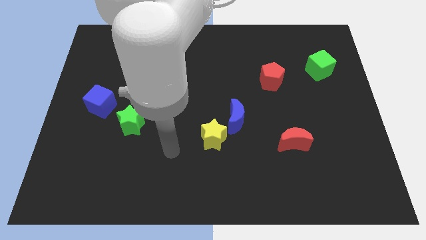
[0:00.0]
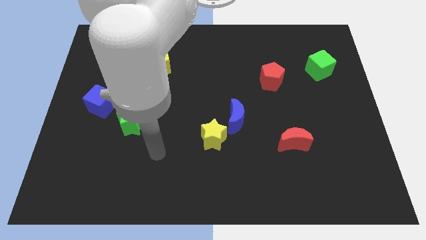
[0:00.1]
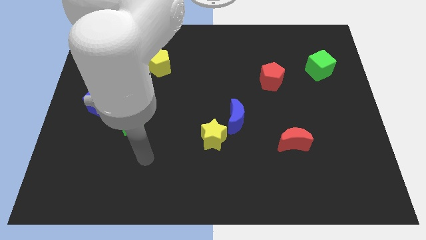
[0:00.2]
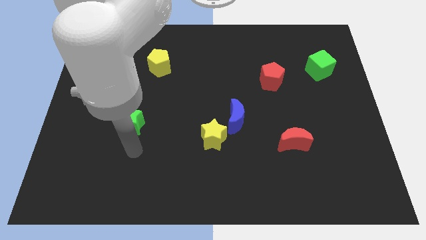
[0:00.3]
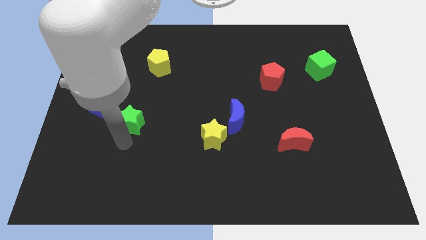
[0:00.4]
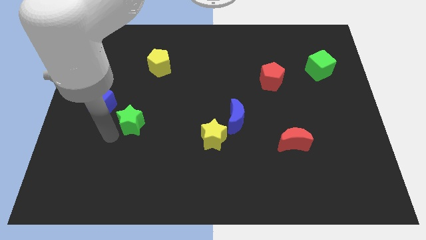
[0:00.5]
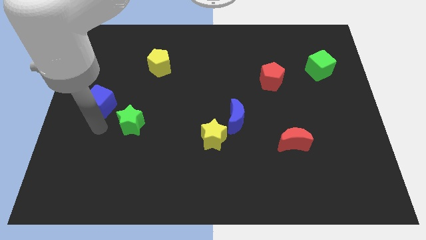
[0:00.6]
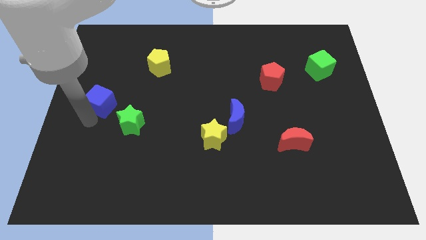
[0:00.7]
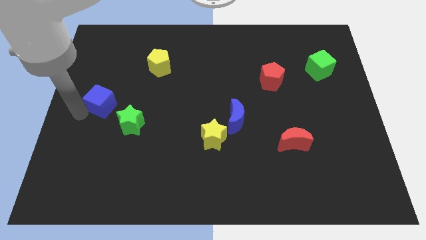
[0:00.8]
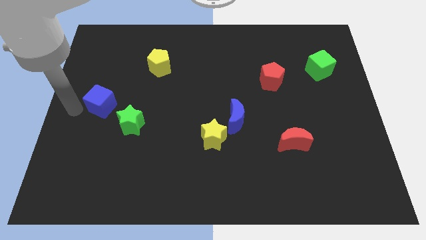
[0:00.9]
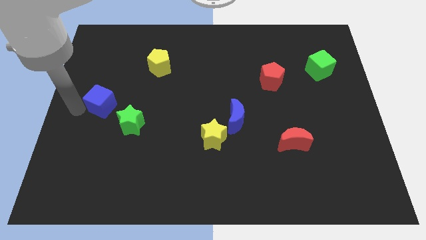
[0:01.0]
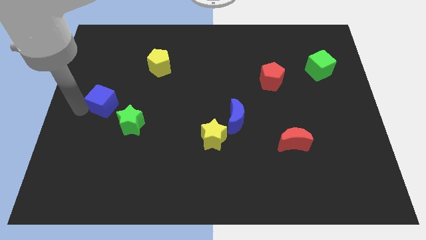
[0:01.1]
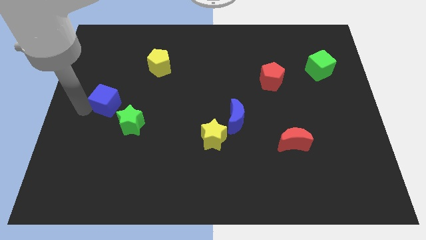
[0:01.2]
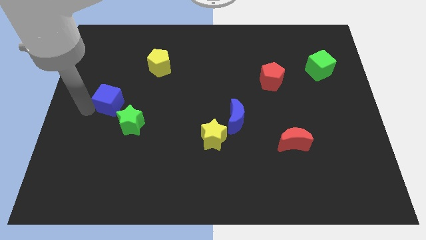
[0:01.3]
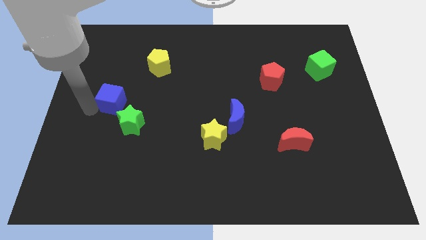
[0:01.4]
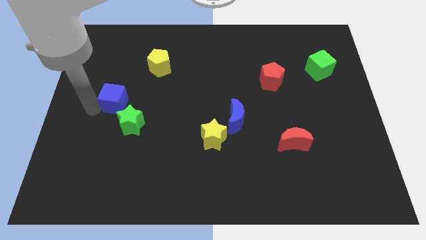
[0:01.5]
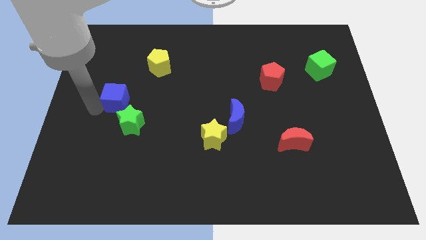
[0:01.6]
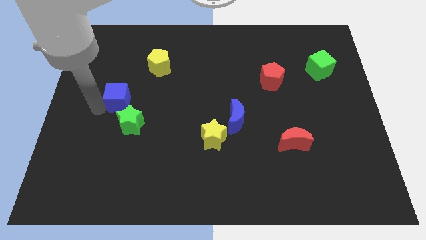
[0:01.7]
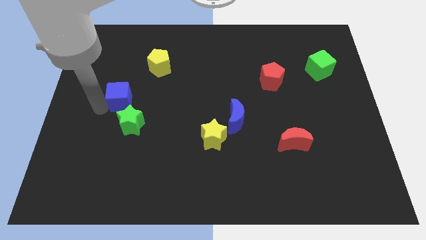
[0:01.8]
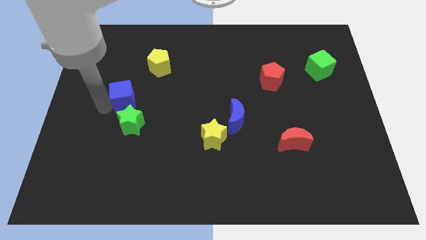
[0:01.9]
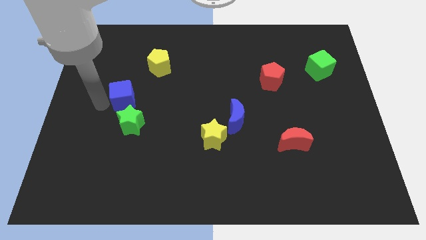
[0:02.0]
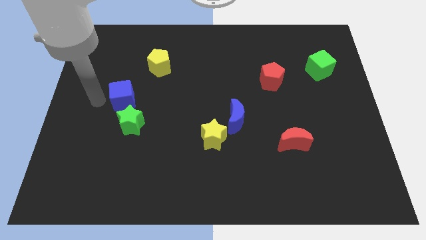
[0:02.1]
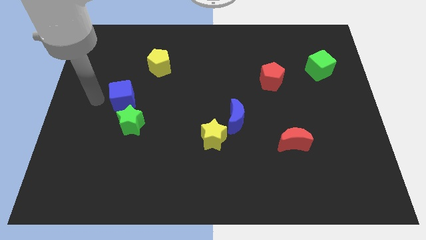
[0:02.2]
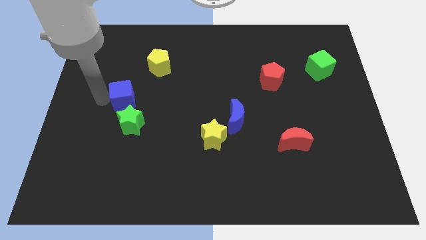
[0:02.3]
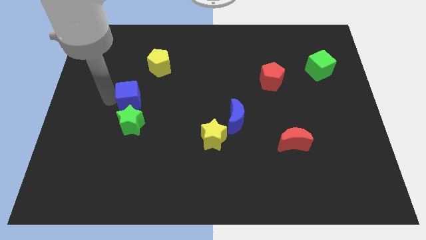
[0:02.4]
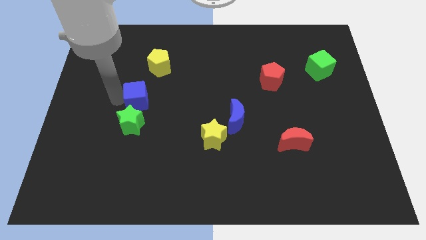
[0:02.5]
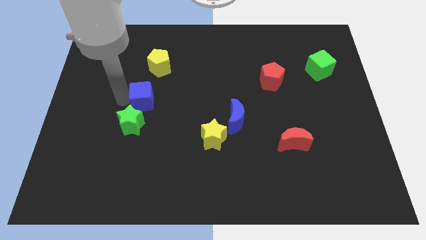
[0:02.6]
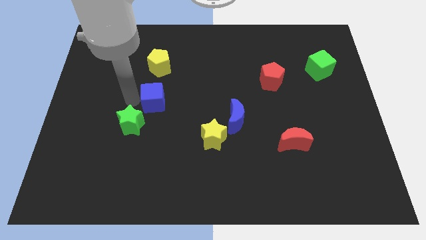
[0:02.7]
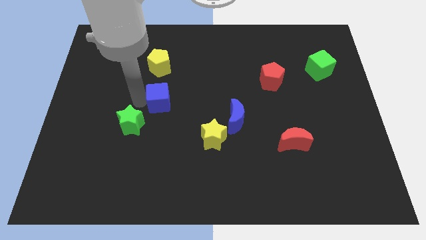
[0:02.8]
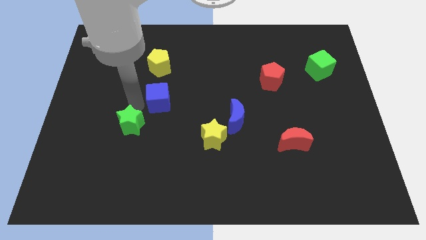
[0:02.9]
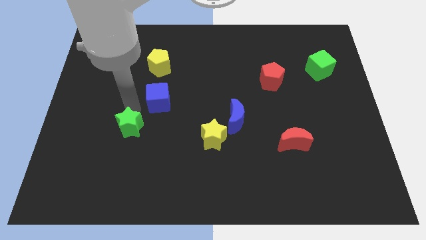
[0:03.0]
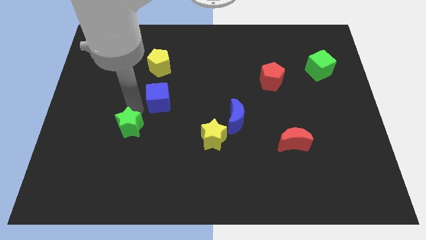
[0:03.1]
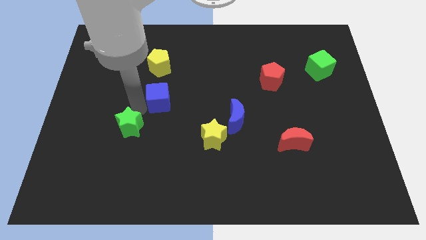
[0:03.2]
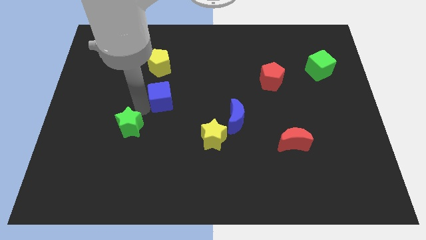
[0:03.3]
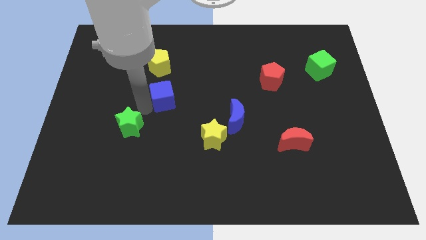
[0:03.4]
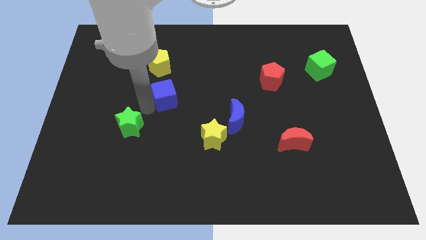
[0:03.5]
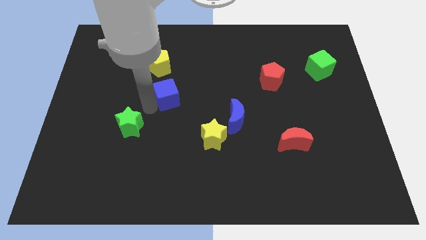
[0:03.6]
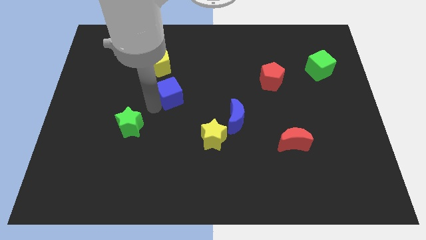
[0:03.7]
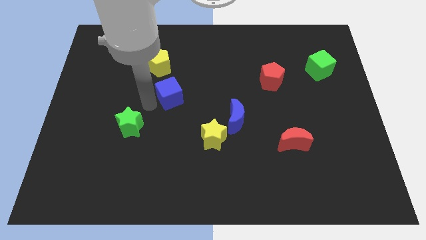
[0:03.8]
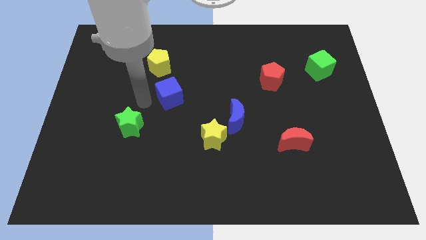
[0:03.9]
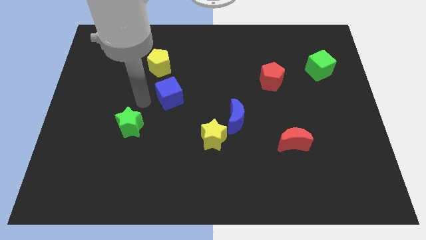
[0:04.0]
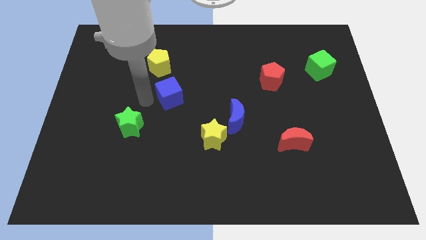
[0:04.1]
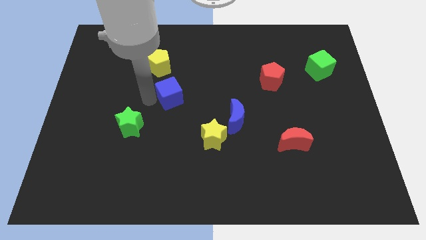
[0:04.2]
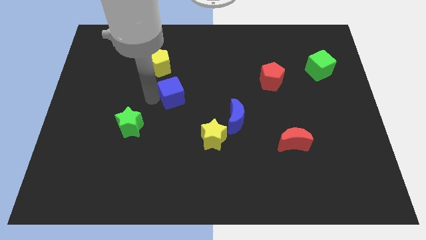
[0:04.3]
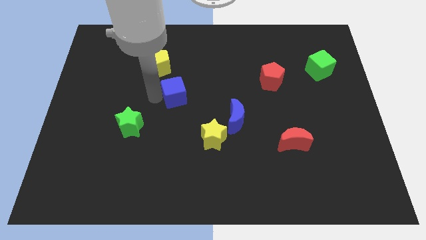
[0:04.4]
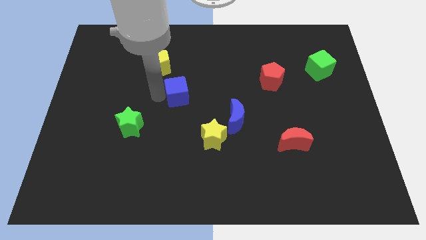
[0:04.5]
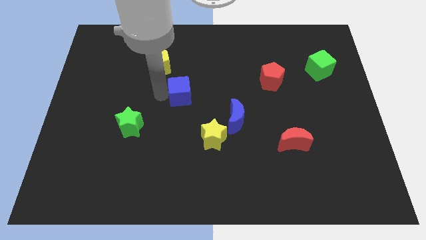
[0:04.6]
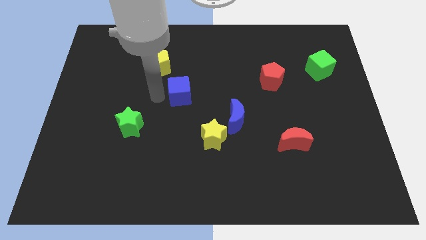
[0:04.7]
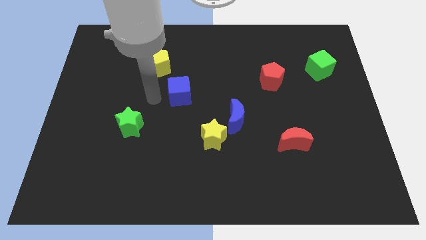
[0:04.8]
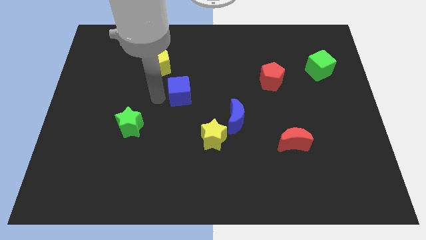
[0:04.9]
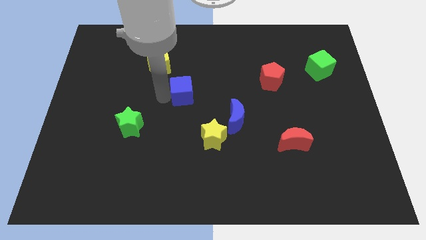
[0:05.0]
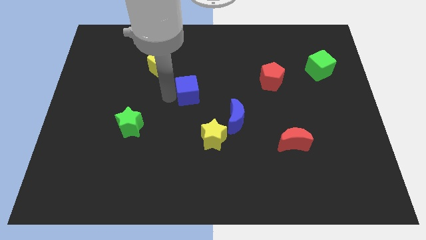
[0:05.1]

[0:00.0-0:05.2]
push the blue cube to the right

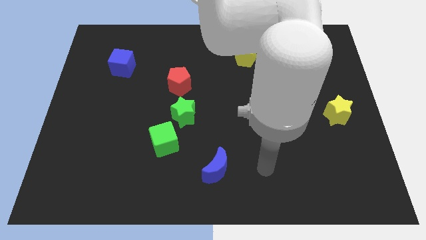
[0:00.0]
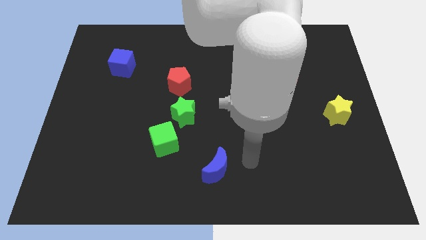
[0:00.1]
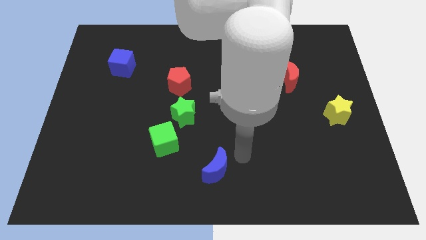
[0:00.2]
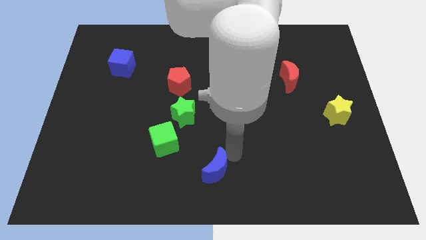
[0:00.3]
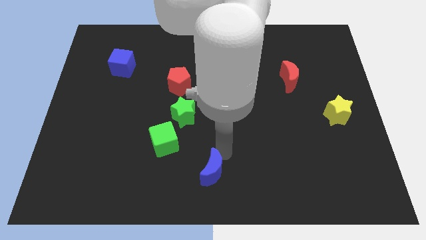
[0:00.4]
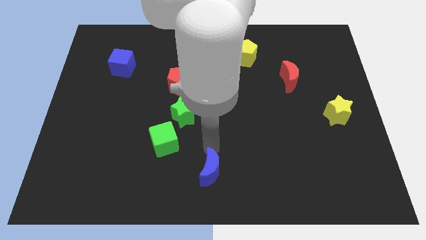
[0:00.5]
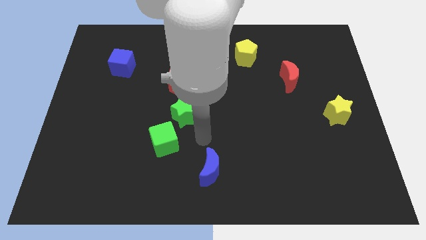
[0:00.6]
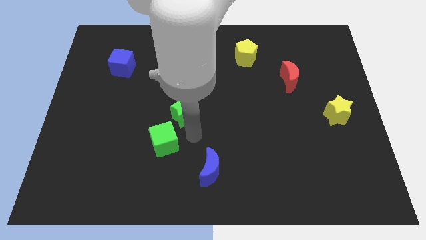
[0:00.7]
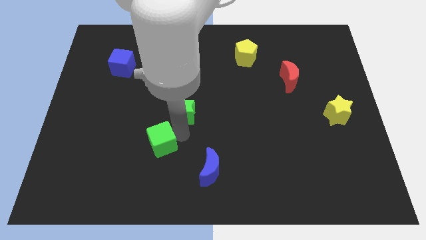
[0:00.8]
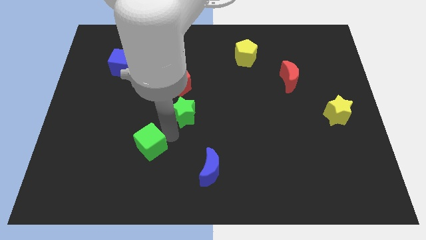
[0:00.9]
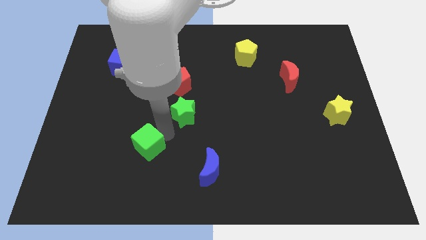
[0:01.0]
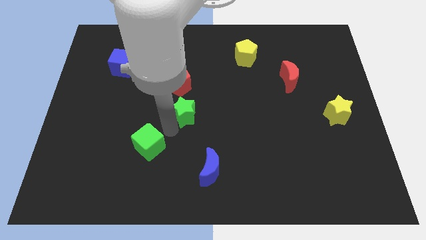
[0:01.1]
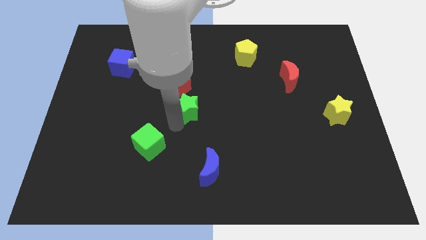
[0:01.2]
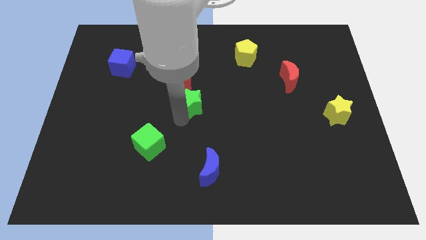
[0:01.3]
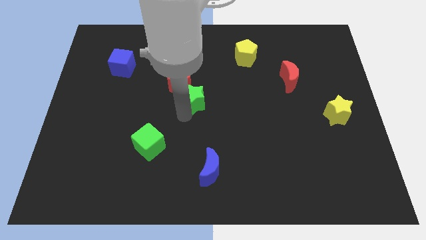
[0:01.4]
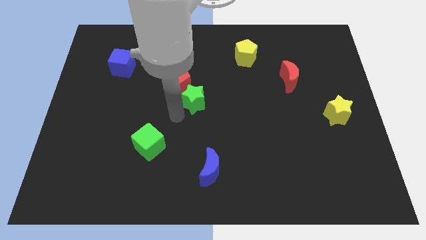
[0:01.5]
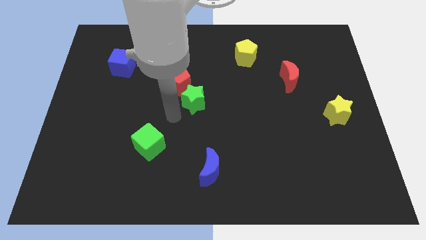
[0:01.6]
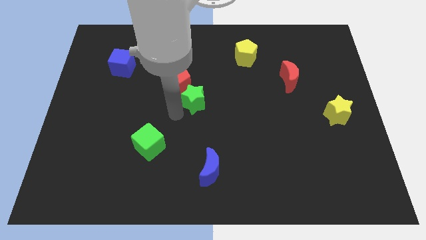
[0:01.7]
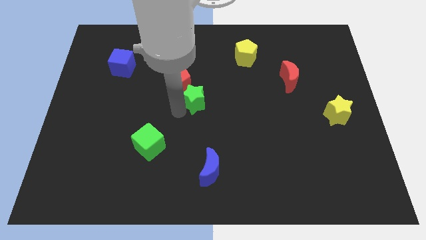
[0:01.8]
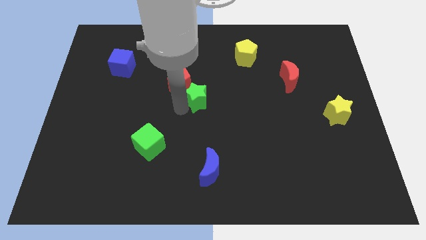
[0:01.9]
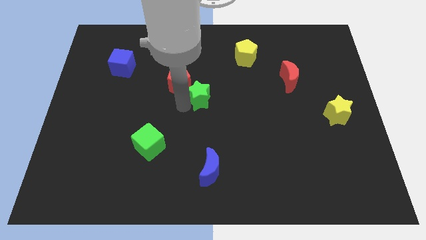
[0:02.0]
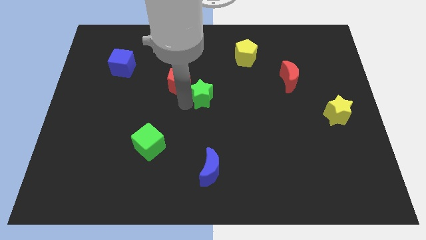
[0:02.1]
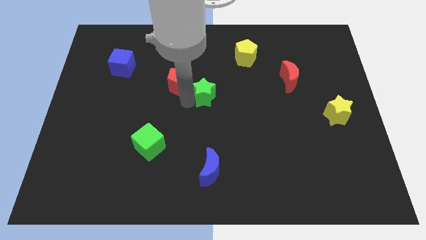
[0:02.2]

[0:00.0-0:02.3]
move the green star upwards and right diagonally a little bit

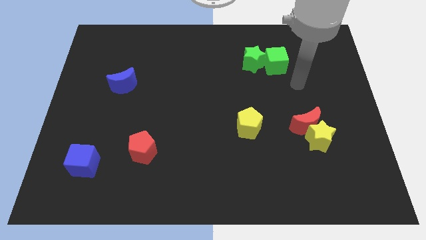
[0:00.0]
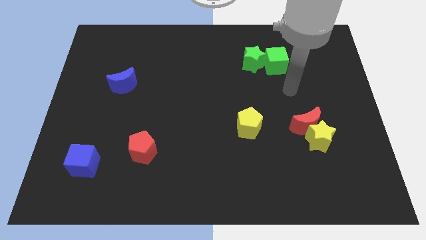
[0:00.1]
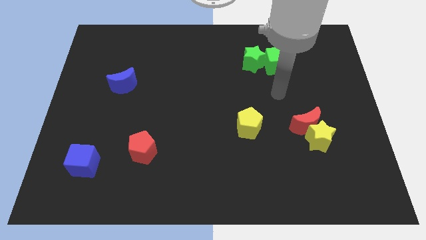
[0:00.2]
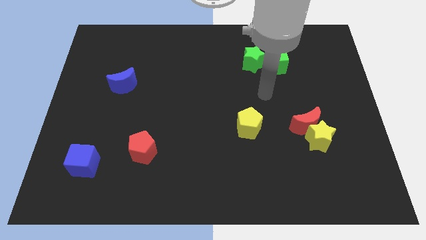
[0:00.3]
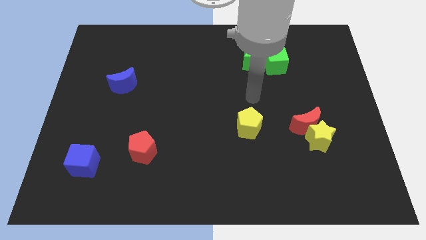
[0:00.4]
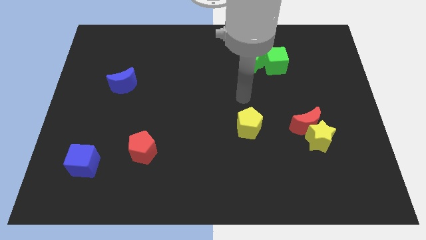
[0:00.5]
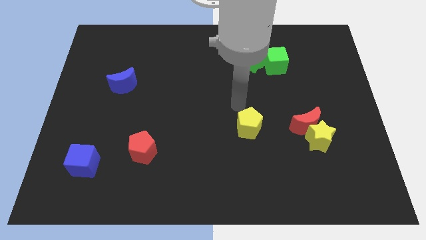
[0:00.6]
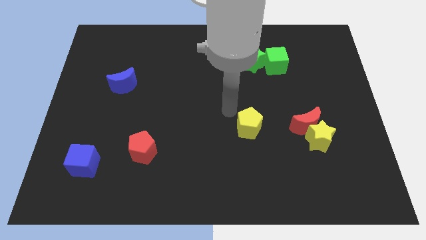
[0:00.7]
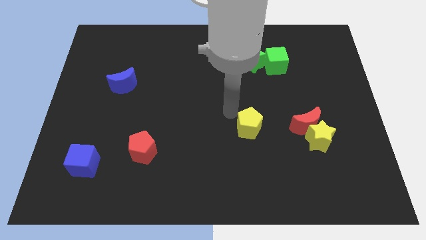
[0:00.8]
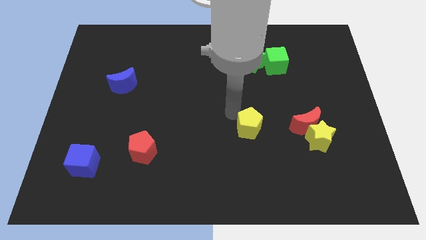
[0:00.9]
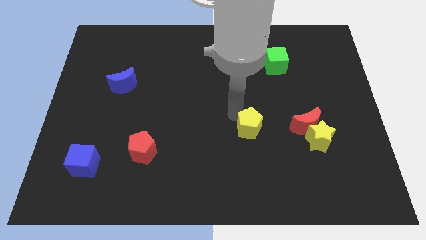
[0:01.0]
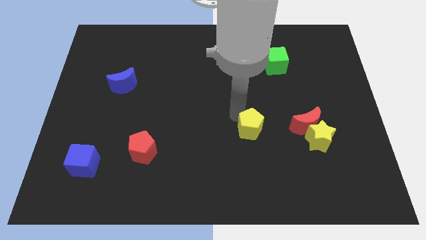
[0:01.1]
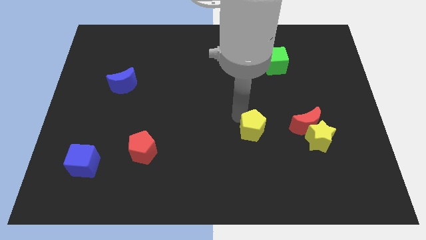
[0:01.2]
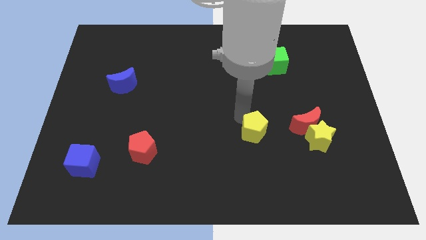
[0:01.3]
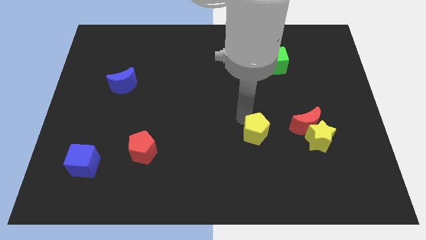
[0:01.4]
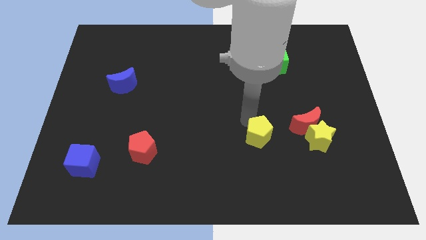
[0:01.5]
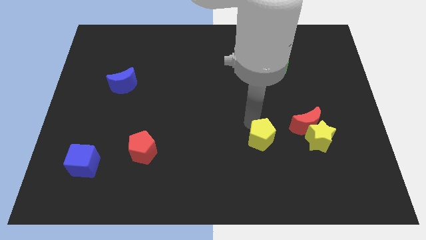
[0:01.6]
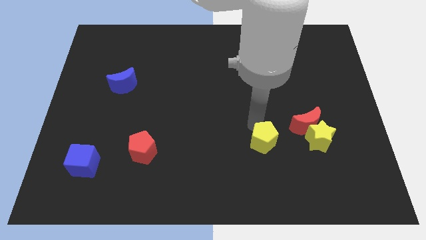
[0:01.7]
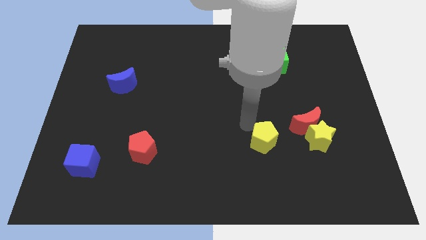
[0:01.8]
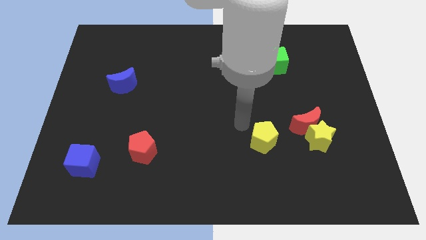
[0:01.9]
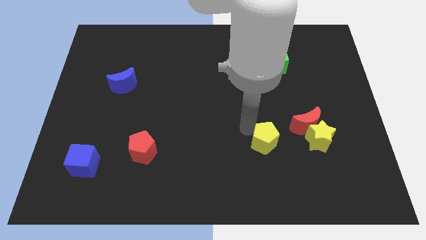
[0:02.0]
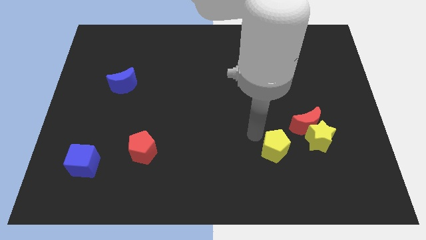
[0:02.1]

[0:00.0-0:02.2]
slide the yellow pentagon down and then to the right somewhat
